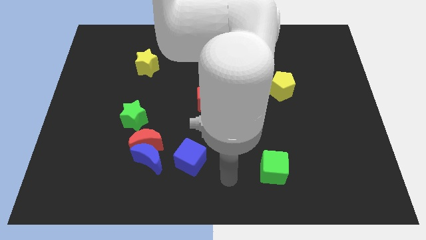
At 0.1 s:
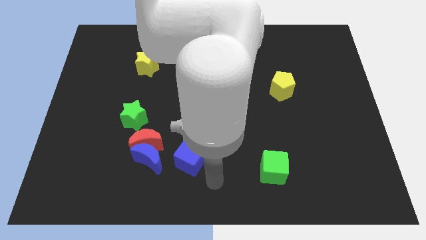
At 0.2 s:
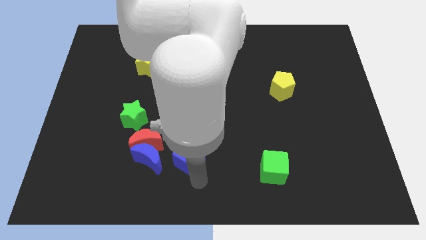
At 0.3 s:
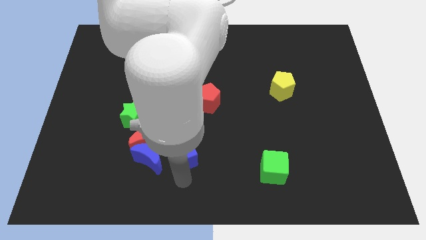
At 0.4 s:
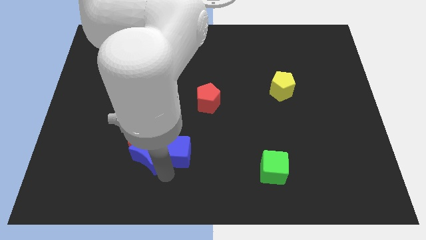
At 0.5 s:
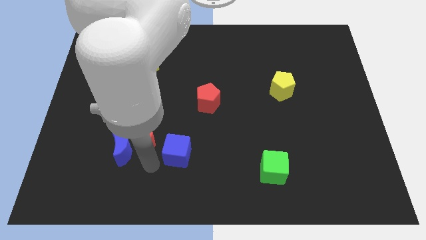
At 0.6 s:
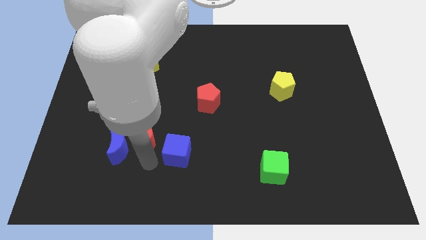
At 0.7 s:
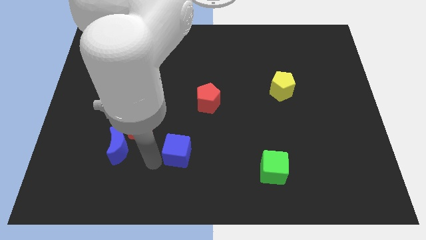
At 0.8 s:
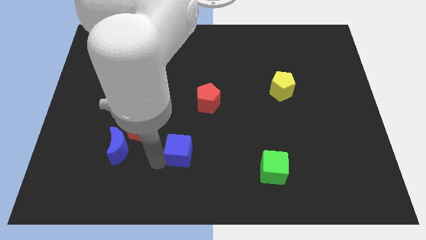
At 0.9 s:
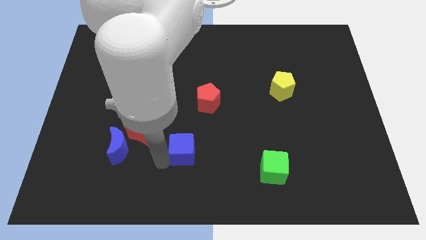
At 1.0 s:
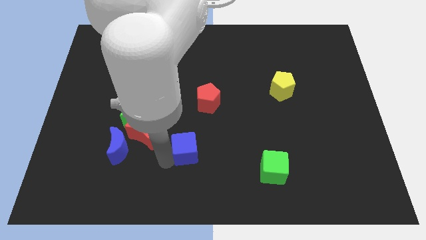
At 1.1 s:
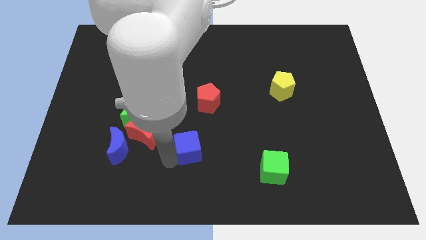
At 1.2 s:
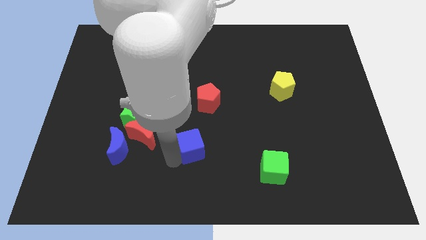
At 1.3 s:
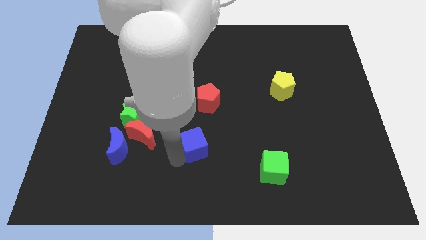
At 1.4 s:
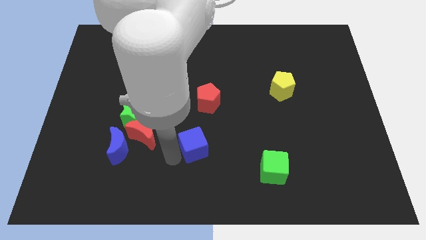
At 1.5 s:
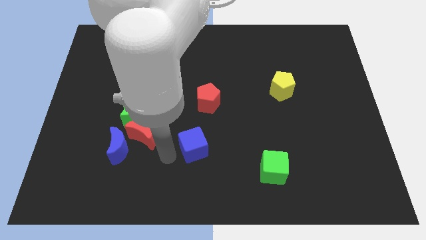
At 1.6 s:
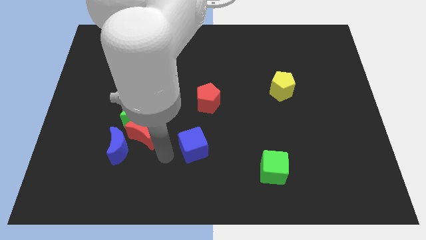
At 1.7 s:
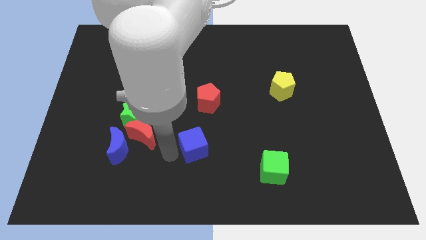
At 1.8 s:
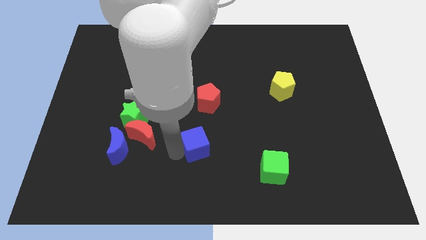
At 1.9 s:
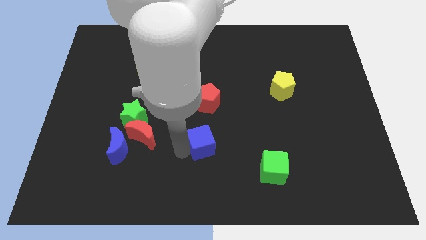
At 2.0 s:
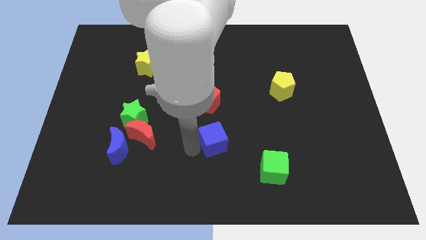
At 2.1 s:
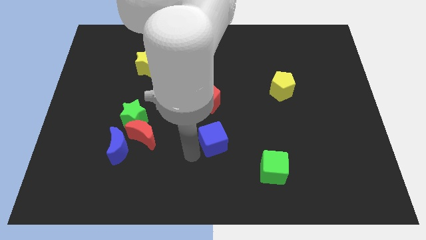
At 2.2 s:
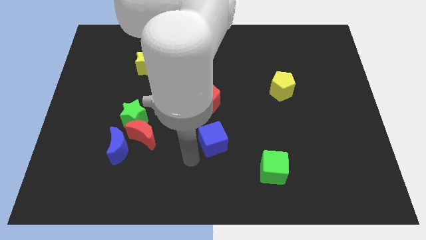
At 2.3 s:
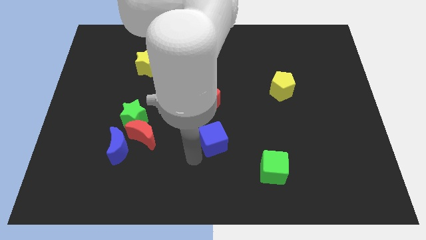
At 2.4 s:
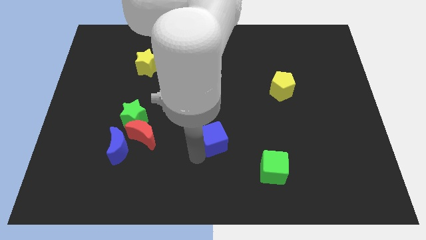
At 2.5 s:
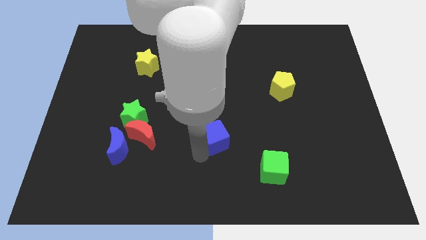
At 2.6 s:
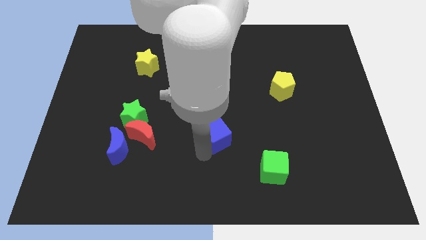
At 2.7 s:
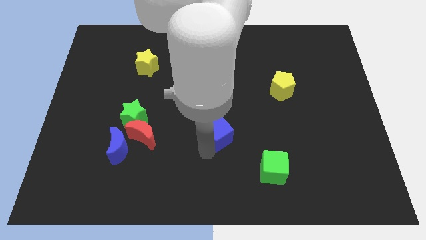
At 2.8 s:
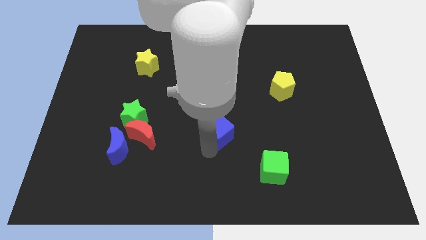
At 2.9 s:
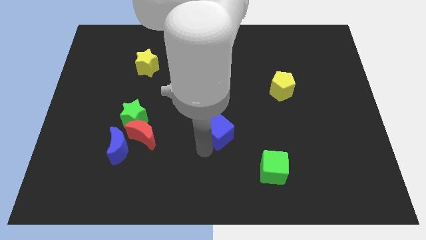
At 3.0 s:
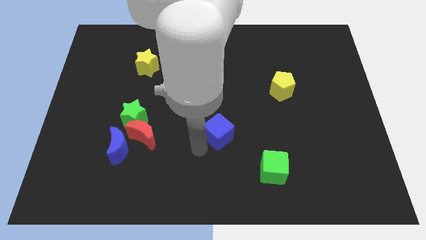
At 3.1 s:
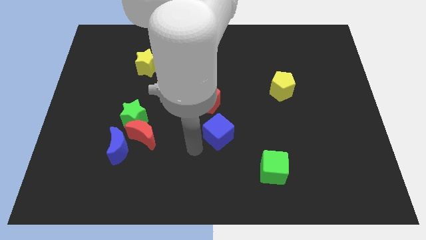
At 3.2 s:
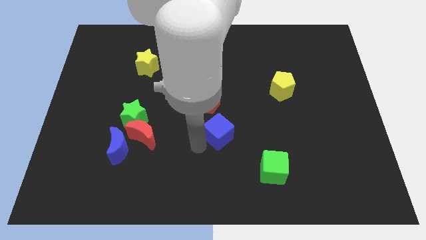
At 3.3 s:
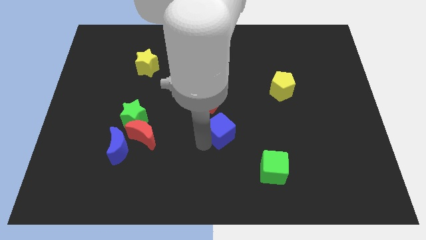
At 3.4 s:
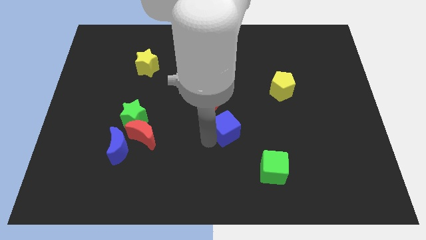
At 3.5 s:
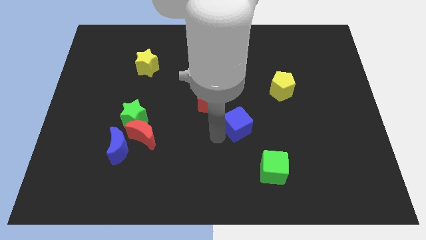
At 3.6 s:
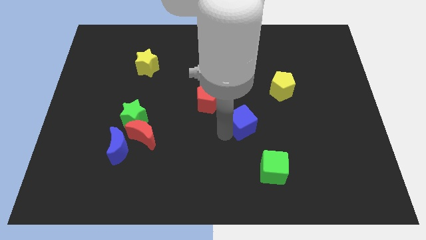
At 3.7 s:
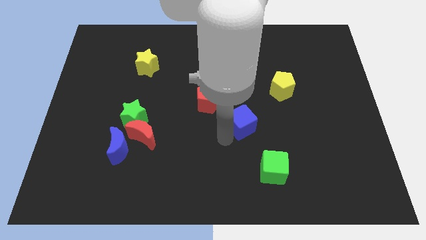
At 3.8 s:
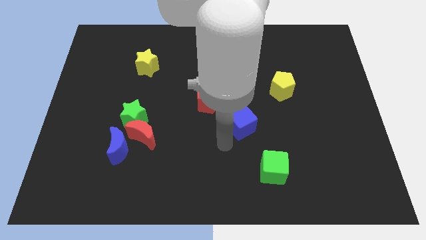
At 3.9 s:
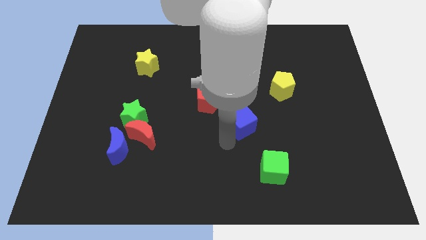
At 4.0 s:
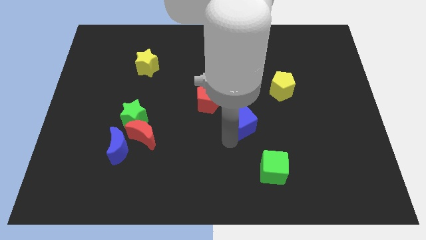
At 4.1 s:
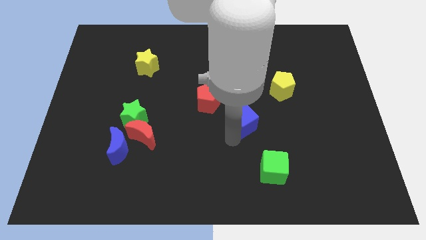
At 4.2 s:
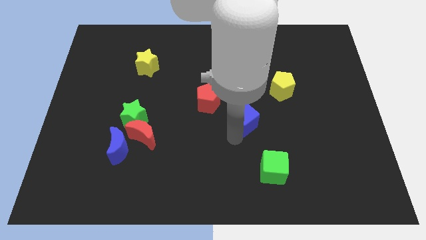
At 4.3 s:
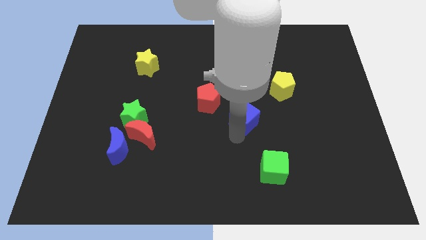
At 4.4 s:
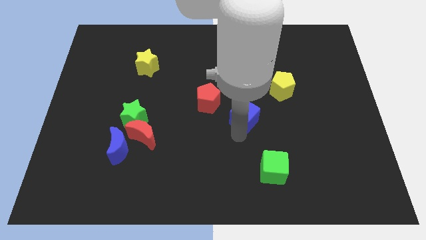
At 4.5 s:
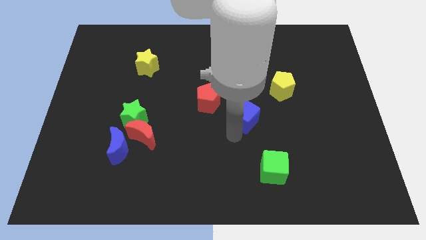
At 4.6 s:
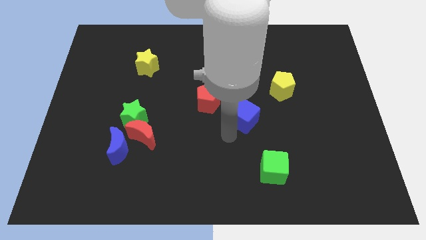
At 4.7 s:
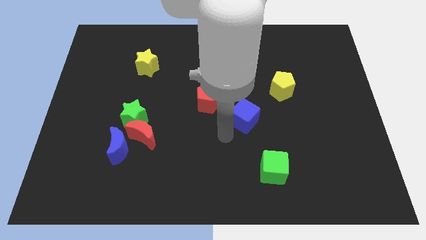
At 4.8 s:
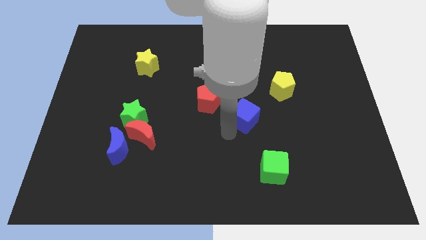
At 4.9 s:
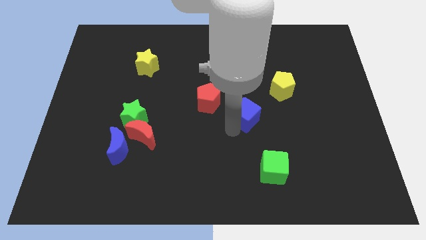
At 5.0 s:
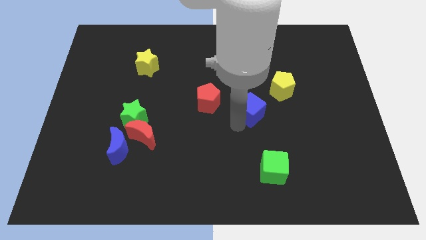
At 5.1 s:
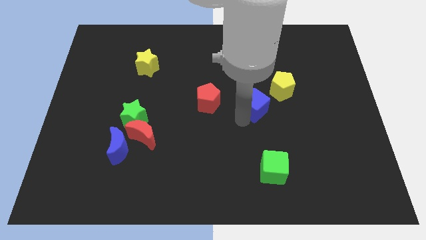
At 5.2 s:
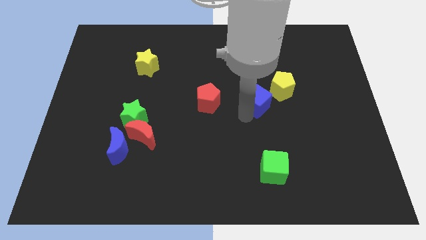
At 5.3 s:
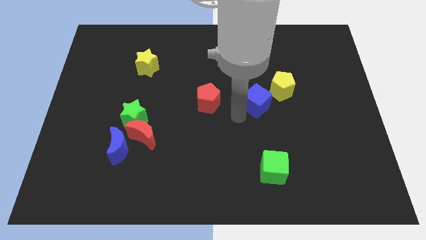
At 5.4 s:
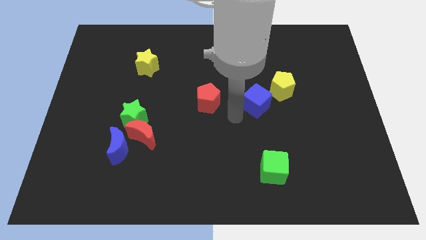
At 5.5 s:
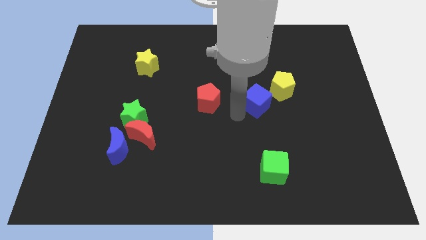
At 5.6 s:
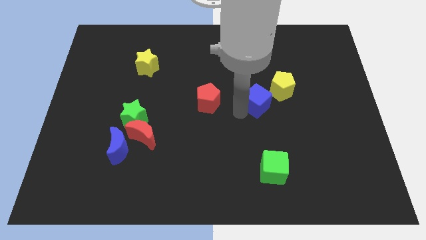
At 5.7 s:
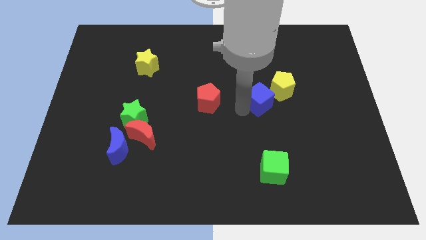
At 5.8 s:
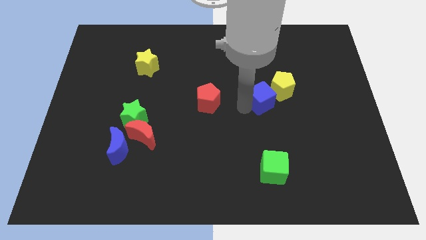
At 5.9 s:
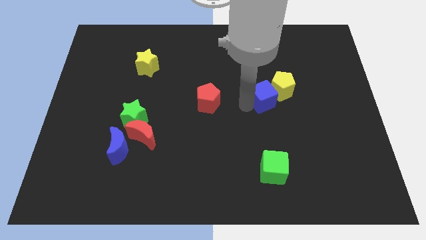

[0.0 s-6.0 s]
put the blue cube to the yellow pentagon

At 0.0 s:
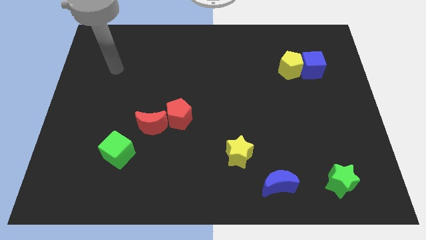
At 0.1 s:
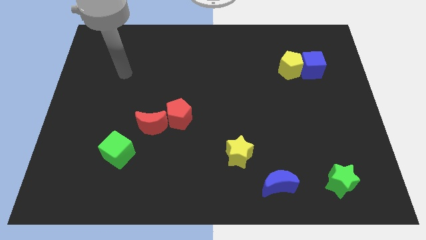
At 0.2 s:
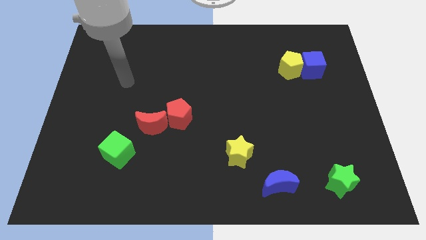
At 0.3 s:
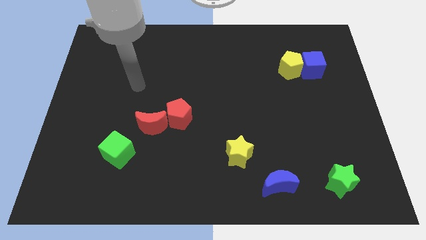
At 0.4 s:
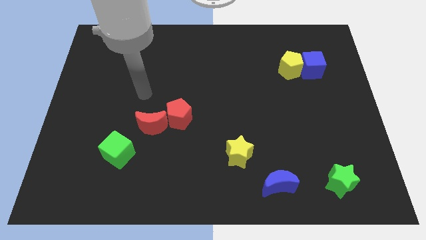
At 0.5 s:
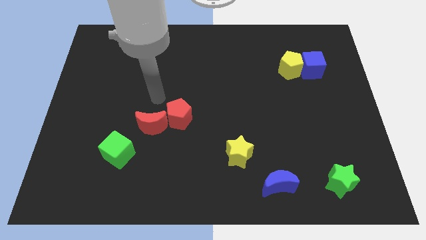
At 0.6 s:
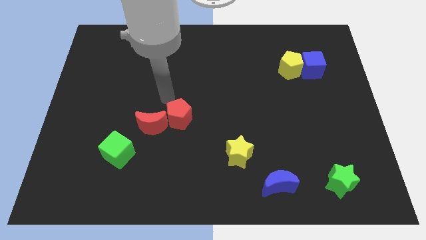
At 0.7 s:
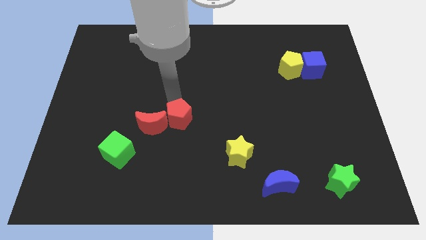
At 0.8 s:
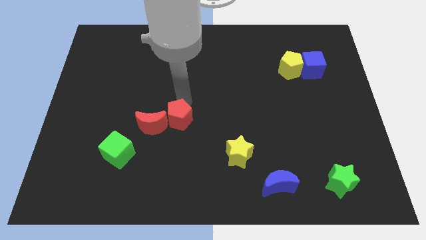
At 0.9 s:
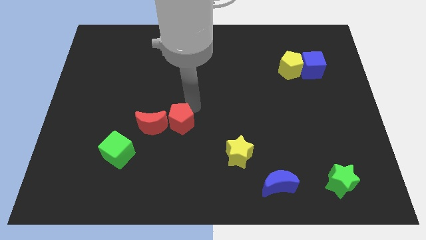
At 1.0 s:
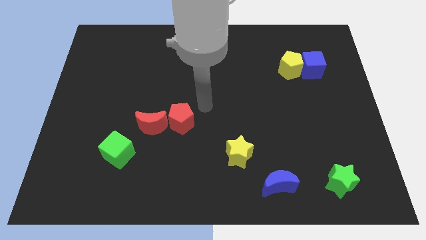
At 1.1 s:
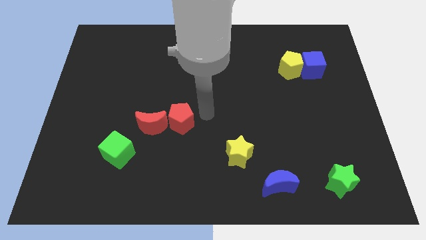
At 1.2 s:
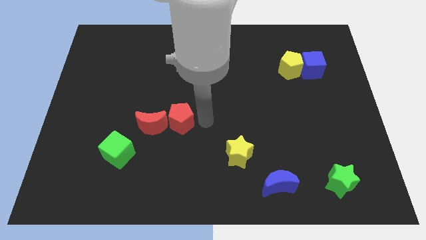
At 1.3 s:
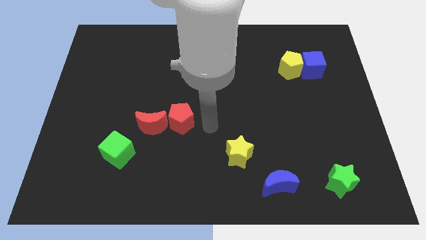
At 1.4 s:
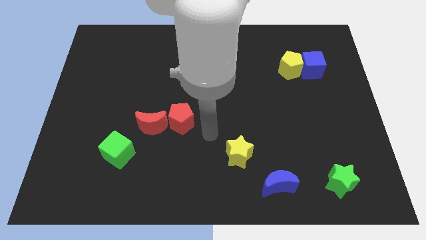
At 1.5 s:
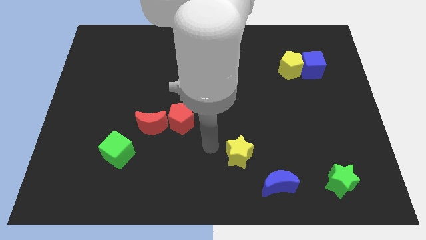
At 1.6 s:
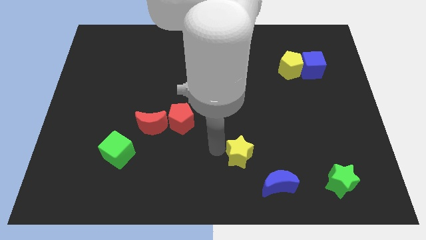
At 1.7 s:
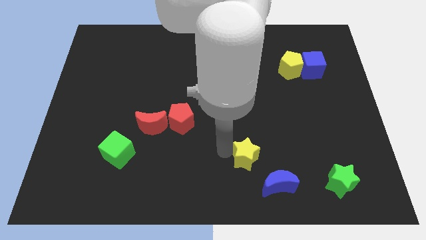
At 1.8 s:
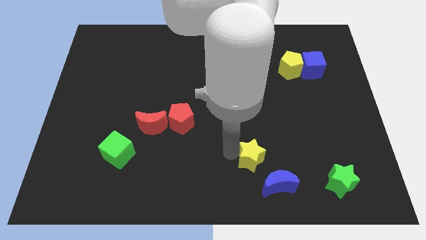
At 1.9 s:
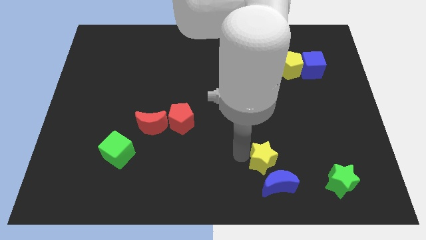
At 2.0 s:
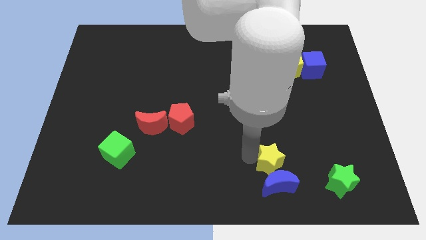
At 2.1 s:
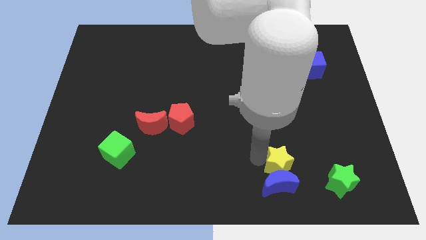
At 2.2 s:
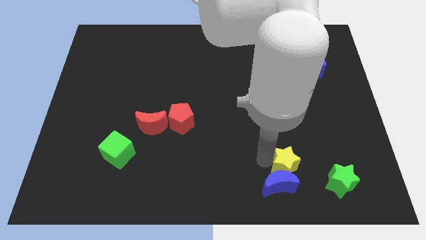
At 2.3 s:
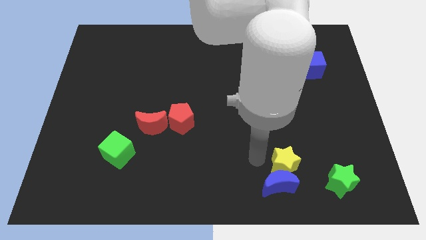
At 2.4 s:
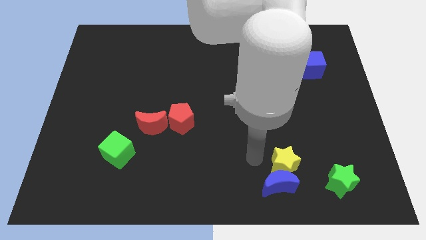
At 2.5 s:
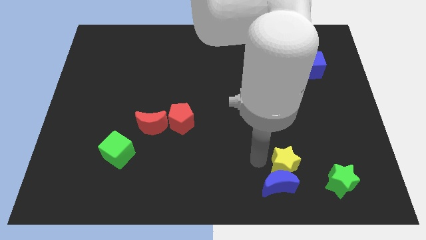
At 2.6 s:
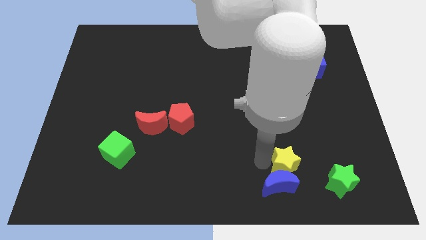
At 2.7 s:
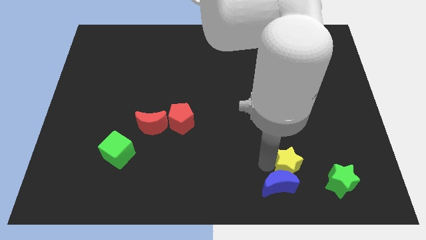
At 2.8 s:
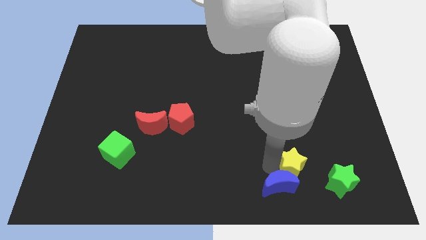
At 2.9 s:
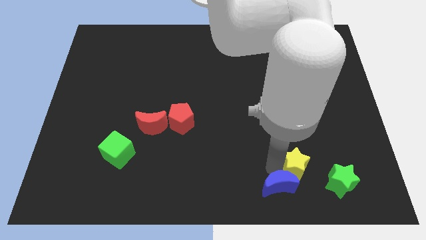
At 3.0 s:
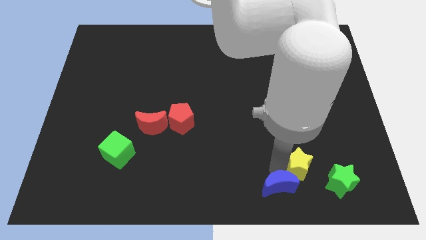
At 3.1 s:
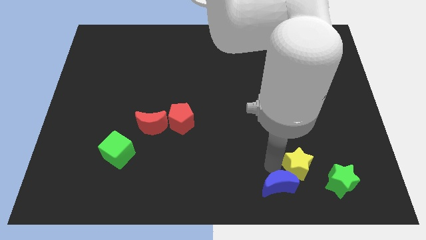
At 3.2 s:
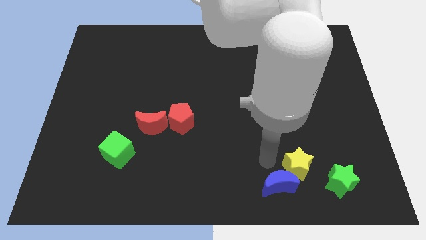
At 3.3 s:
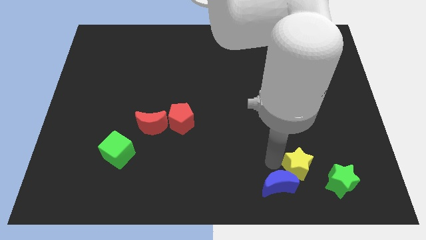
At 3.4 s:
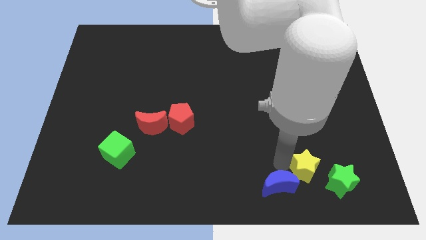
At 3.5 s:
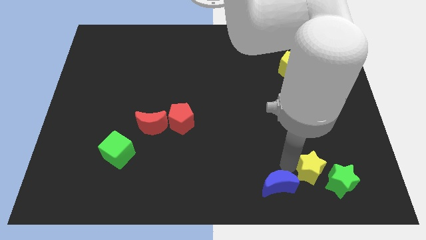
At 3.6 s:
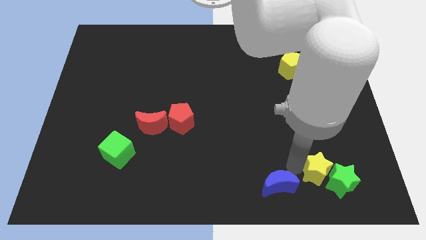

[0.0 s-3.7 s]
slide the yellow star towards the green star
